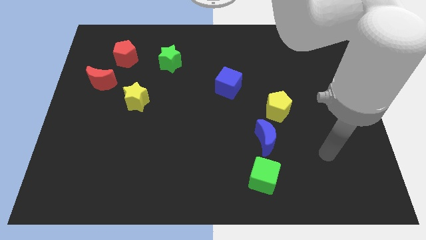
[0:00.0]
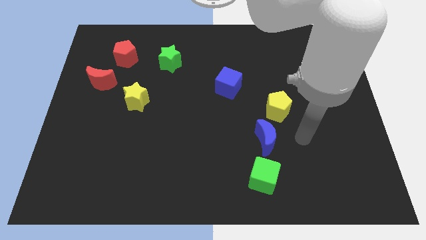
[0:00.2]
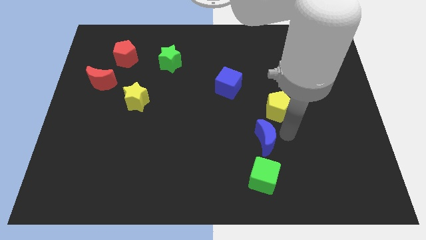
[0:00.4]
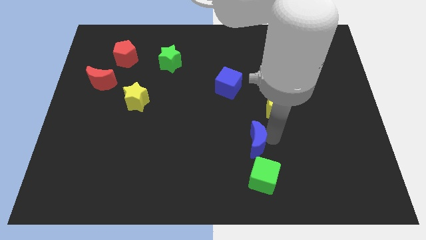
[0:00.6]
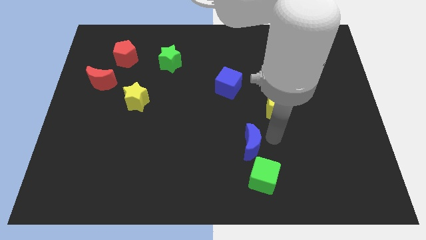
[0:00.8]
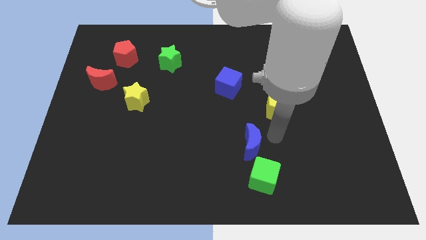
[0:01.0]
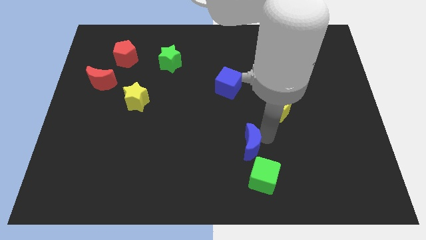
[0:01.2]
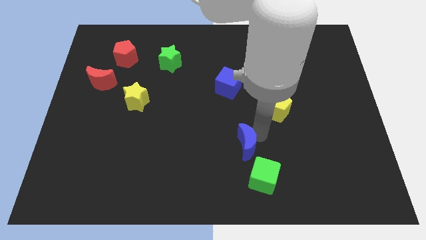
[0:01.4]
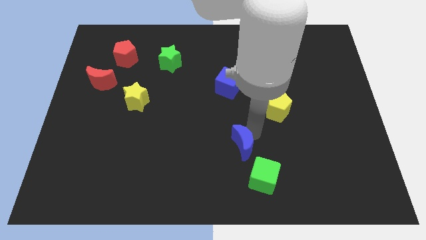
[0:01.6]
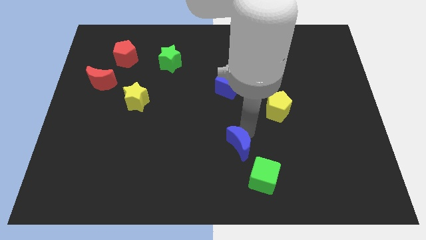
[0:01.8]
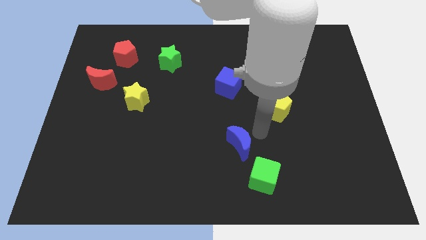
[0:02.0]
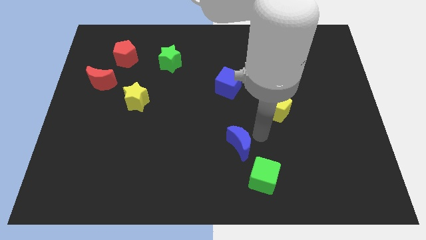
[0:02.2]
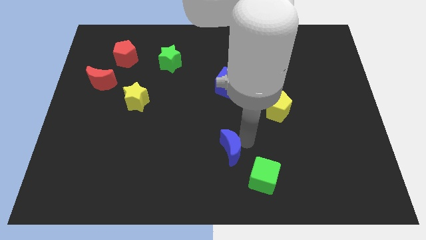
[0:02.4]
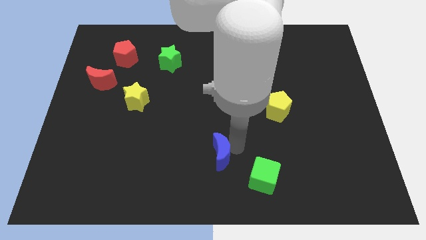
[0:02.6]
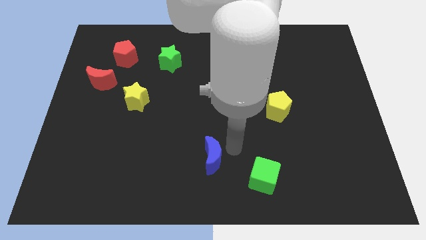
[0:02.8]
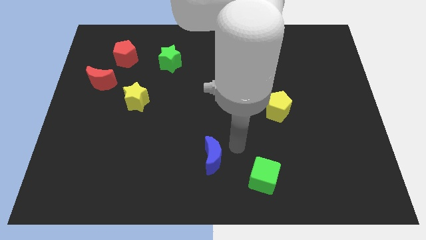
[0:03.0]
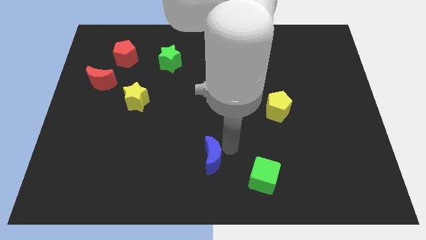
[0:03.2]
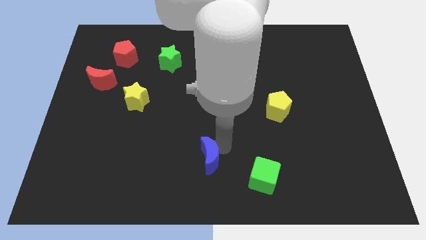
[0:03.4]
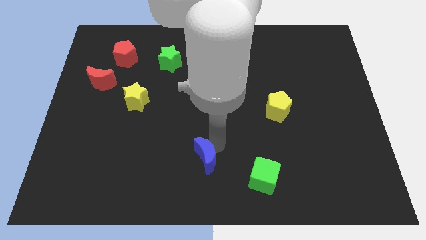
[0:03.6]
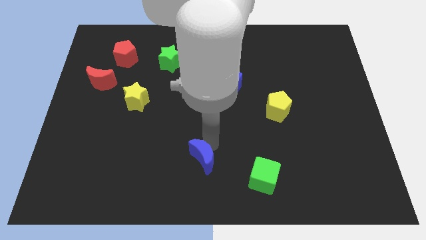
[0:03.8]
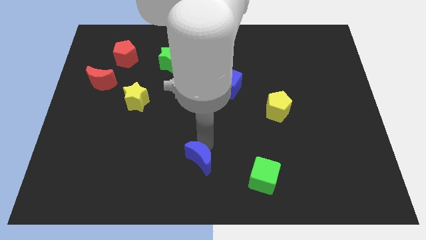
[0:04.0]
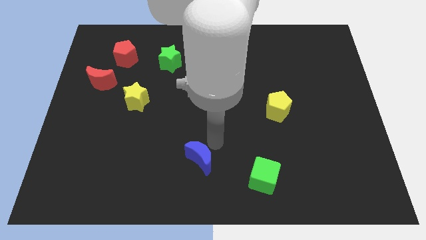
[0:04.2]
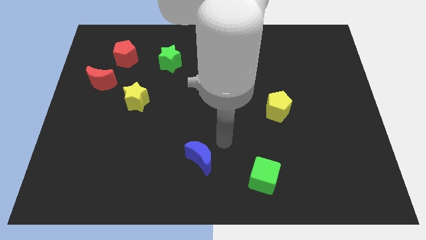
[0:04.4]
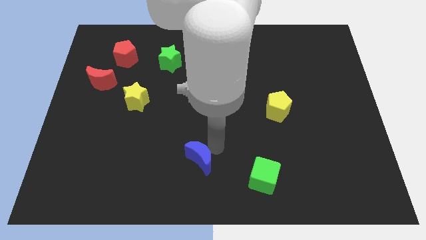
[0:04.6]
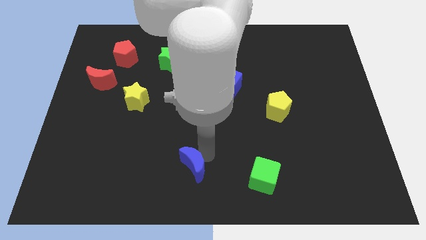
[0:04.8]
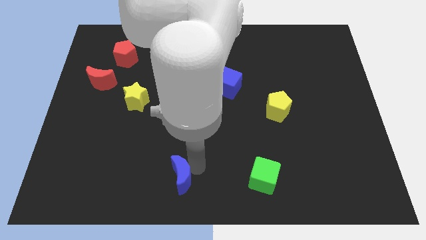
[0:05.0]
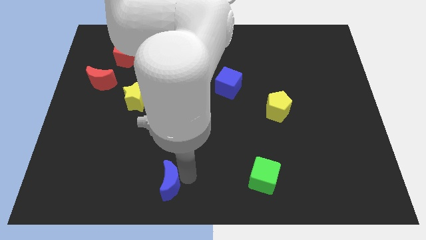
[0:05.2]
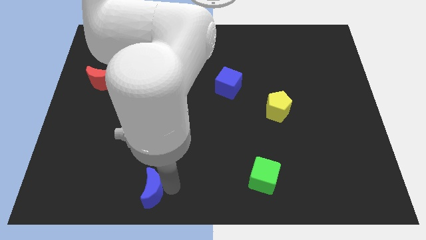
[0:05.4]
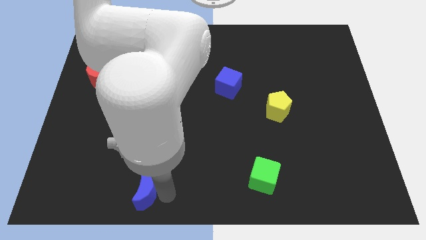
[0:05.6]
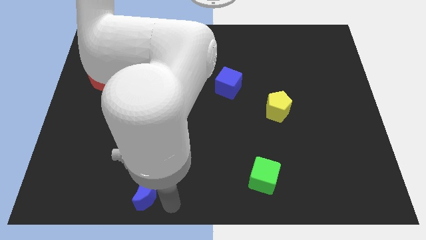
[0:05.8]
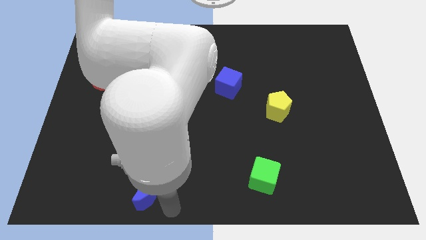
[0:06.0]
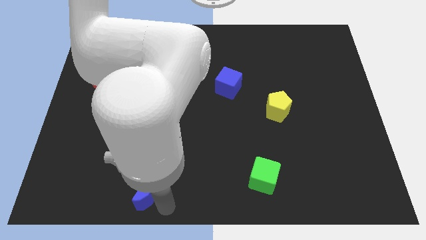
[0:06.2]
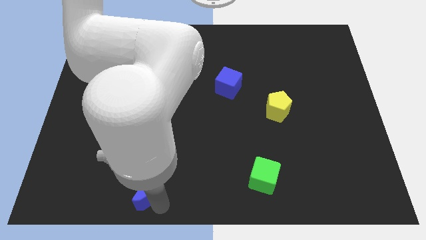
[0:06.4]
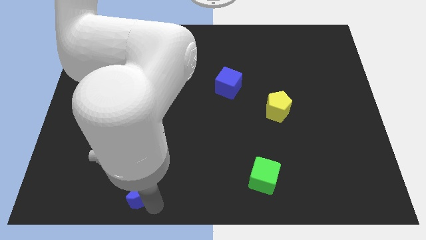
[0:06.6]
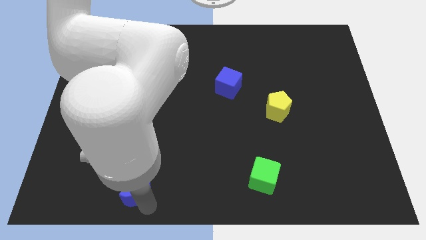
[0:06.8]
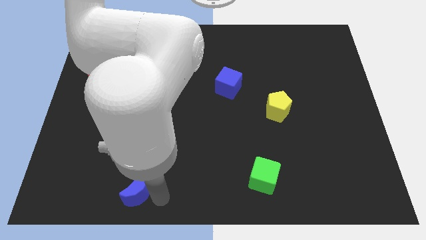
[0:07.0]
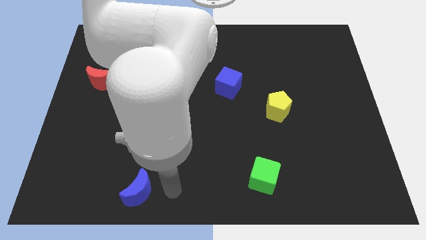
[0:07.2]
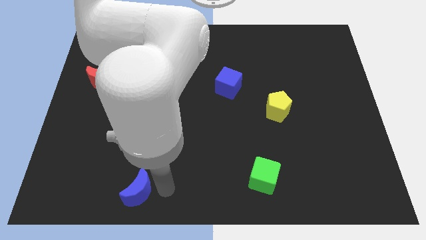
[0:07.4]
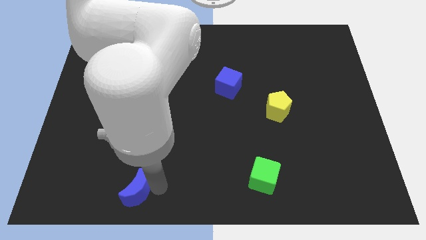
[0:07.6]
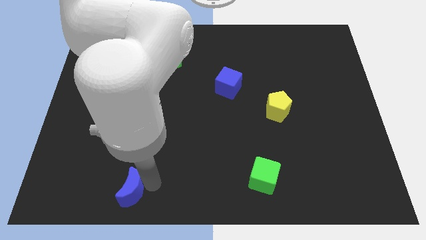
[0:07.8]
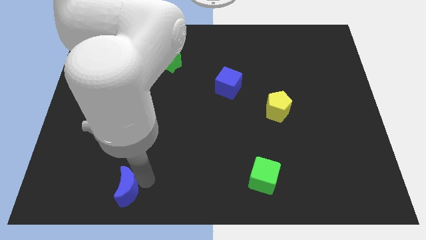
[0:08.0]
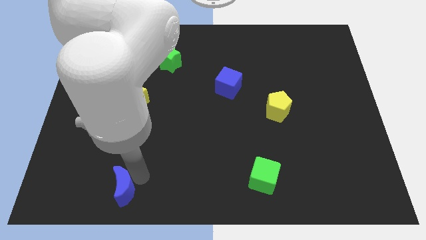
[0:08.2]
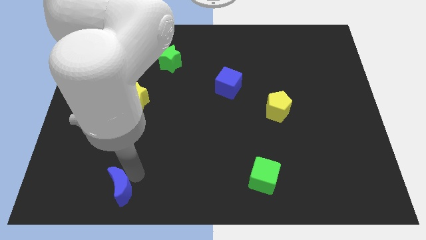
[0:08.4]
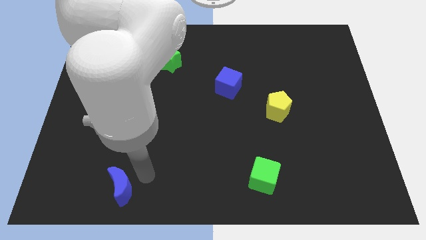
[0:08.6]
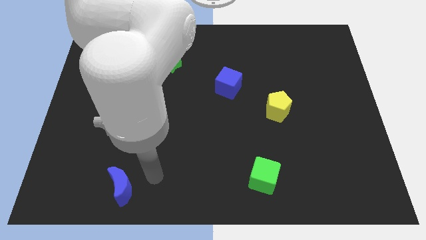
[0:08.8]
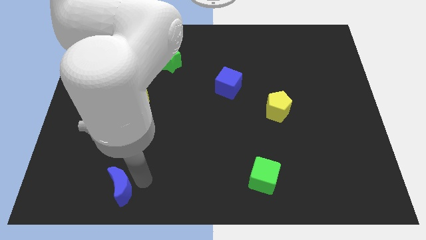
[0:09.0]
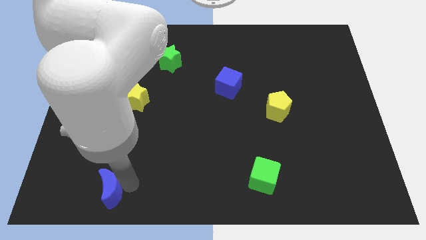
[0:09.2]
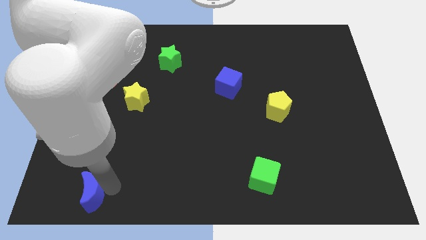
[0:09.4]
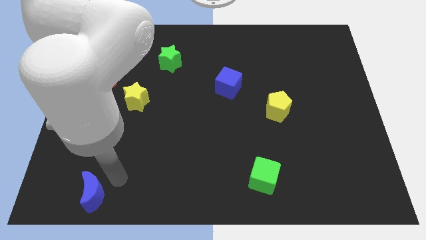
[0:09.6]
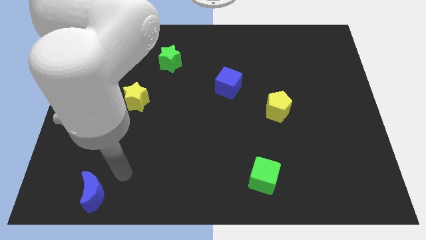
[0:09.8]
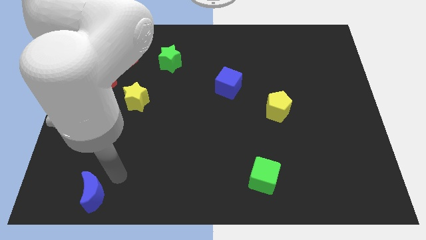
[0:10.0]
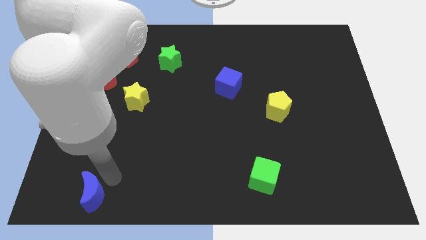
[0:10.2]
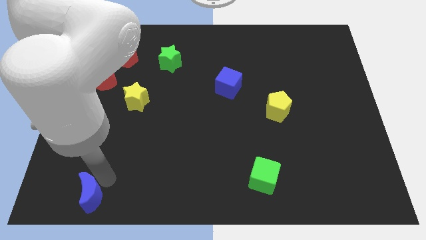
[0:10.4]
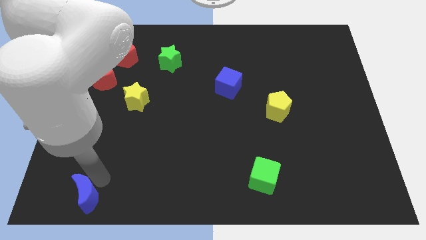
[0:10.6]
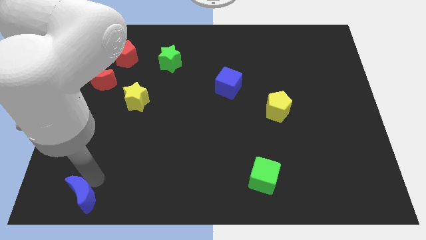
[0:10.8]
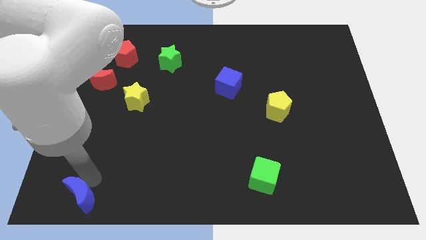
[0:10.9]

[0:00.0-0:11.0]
put the blue moon to the bottom left

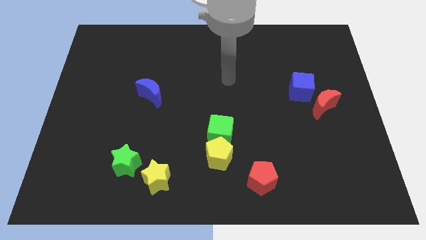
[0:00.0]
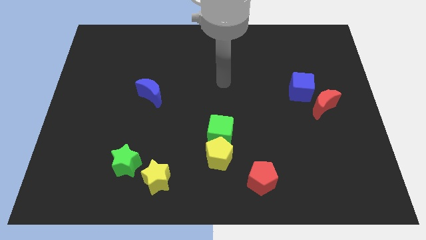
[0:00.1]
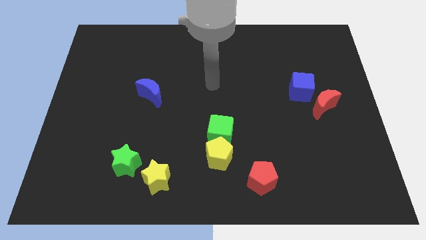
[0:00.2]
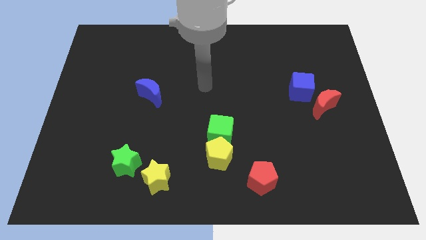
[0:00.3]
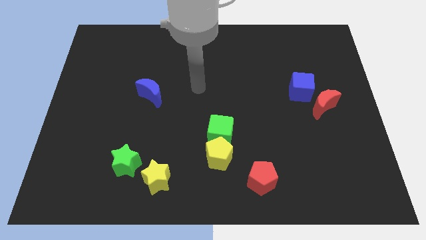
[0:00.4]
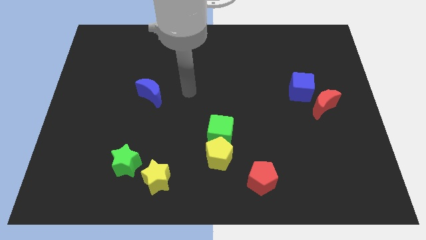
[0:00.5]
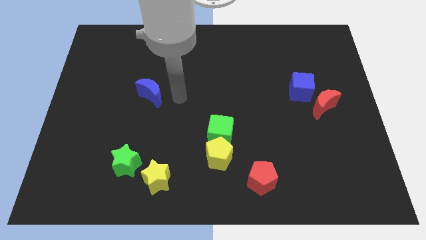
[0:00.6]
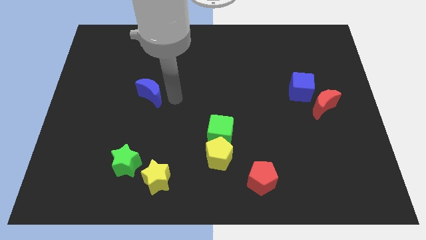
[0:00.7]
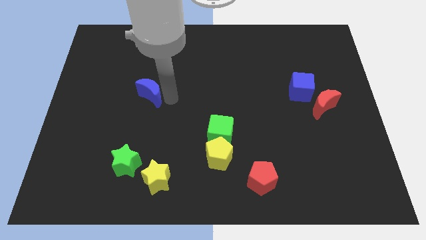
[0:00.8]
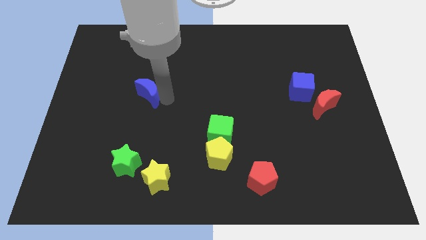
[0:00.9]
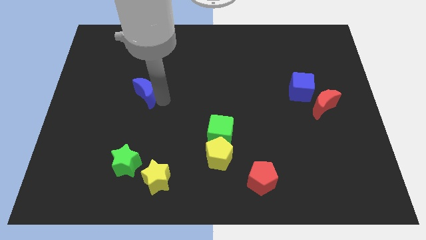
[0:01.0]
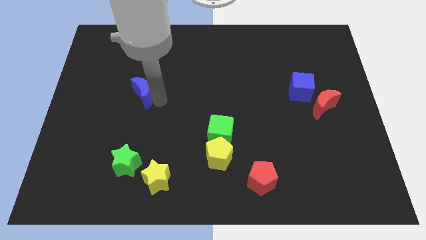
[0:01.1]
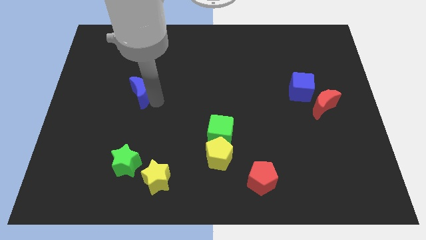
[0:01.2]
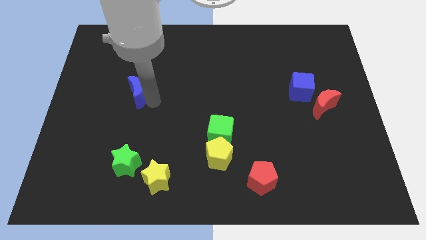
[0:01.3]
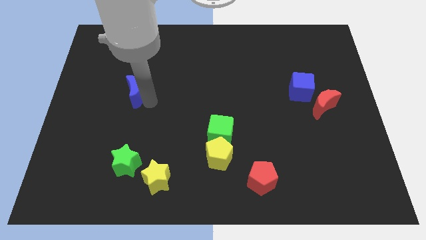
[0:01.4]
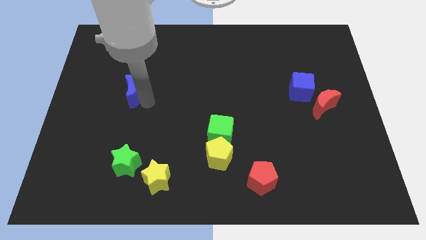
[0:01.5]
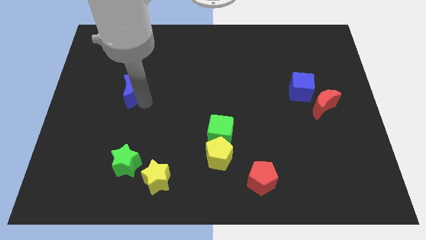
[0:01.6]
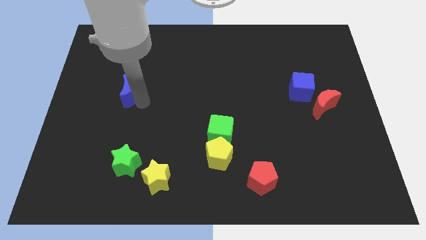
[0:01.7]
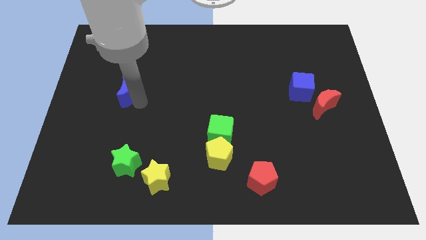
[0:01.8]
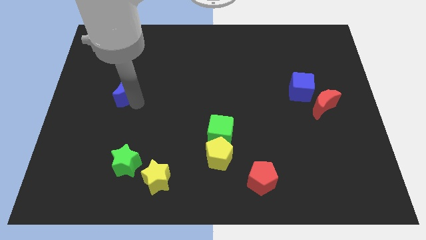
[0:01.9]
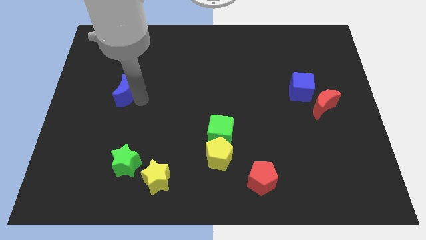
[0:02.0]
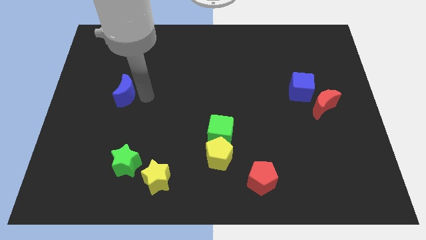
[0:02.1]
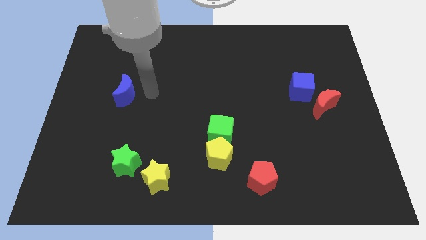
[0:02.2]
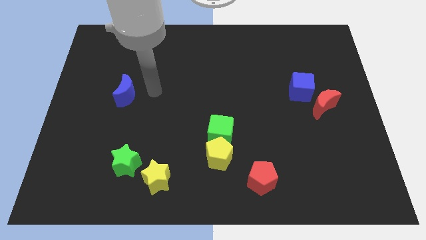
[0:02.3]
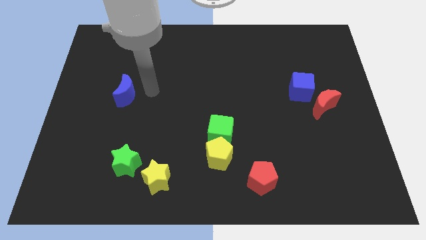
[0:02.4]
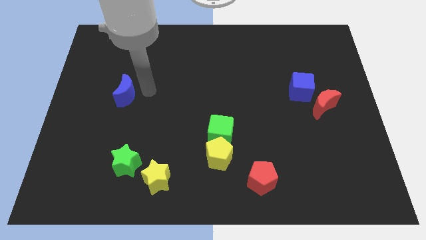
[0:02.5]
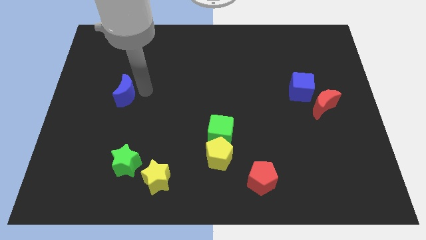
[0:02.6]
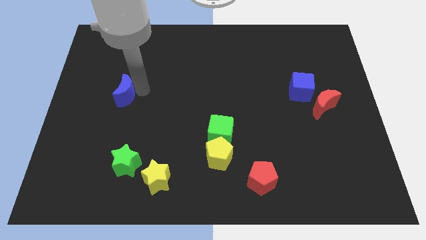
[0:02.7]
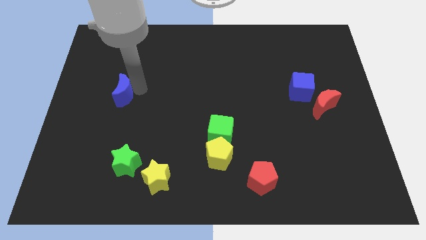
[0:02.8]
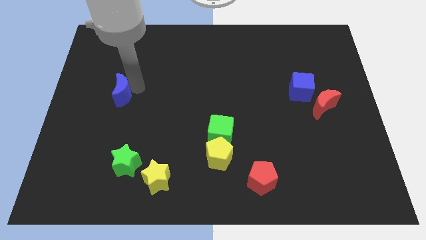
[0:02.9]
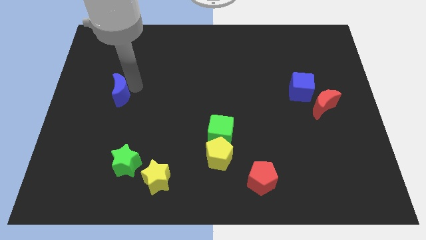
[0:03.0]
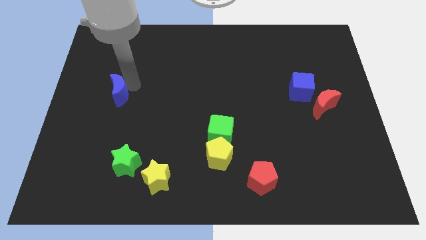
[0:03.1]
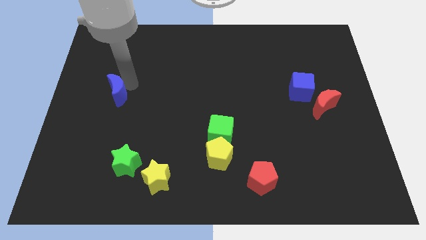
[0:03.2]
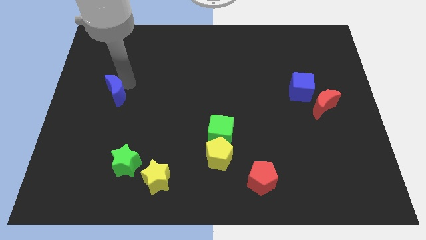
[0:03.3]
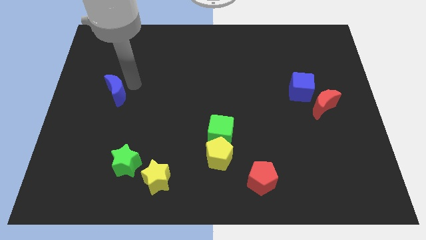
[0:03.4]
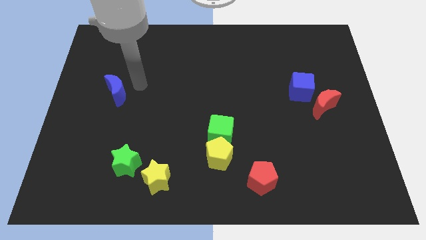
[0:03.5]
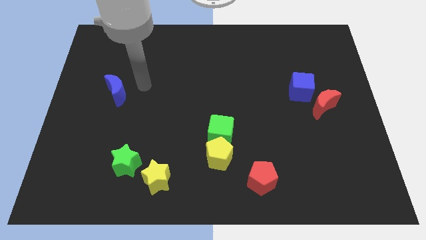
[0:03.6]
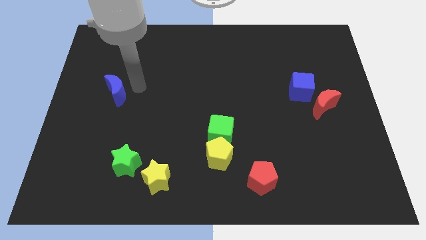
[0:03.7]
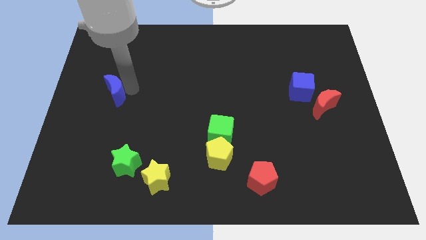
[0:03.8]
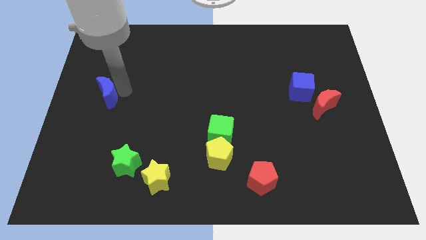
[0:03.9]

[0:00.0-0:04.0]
push the blue moon to the center left
